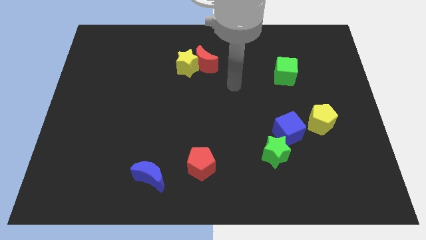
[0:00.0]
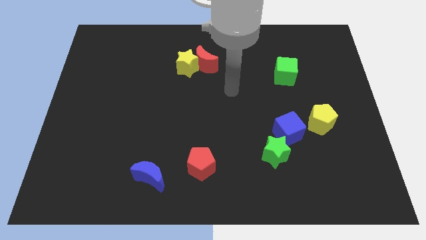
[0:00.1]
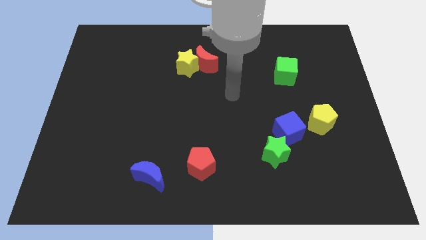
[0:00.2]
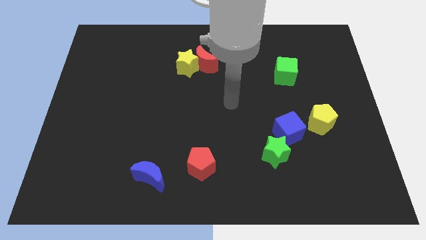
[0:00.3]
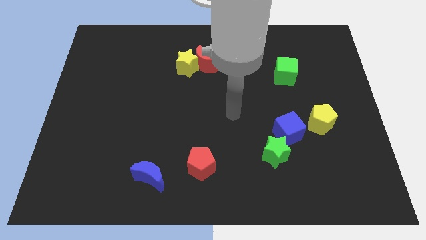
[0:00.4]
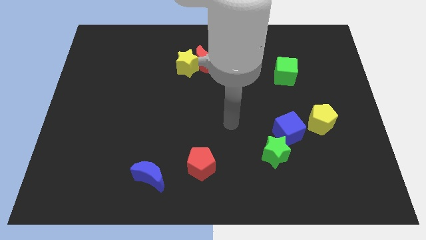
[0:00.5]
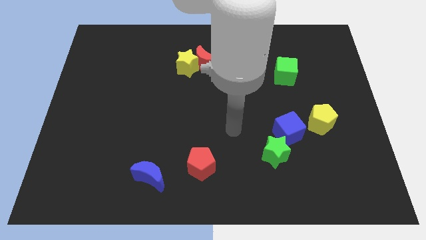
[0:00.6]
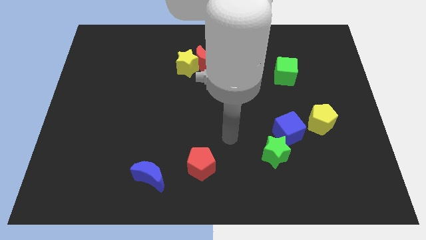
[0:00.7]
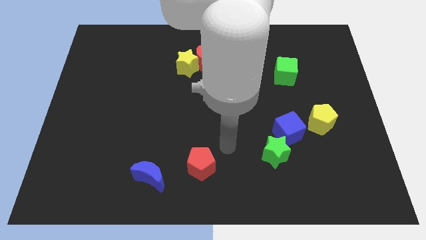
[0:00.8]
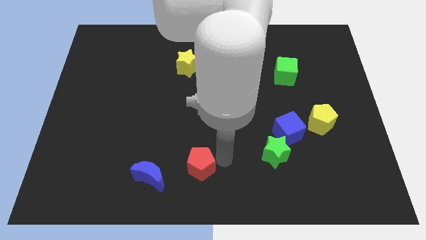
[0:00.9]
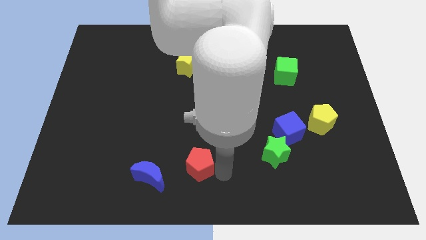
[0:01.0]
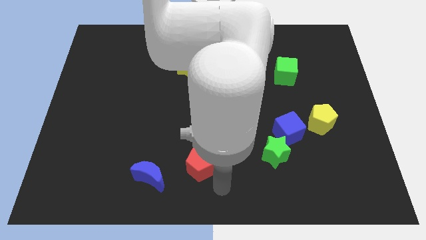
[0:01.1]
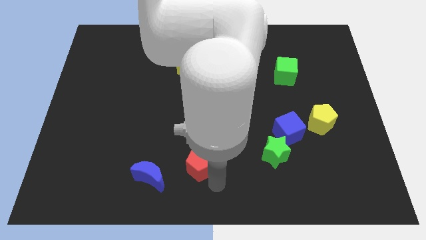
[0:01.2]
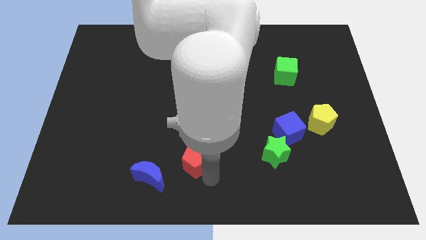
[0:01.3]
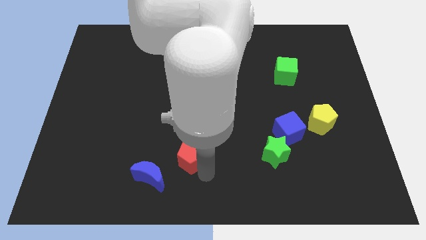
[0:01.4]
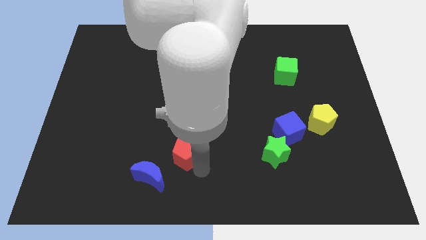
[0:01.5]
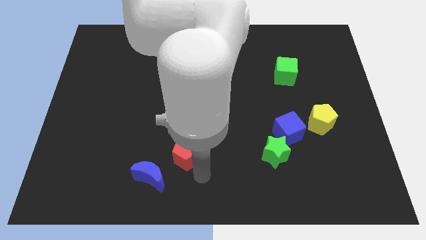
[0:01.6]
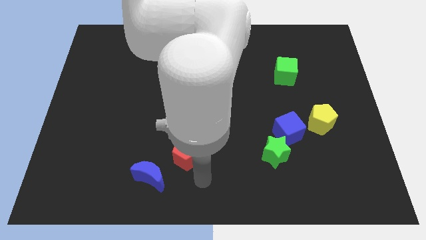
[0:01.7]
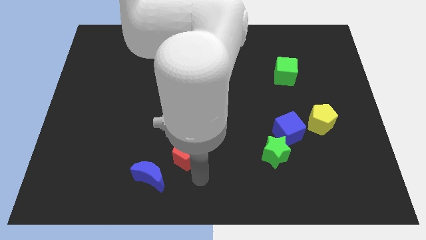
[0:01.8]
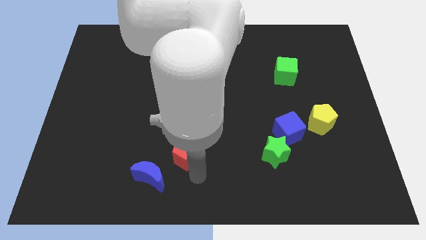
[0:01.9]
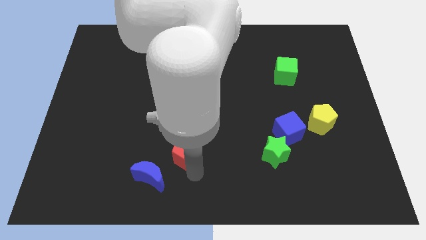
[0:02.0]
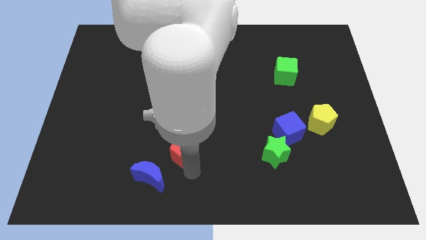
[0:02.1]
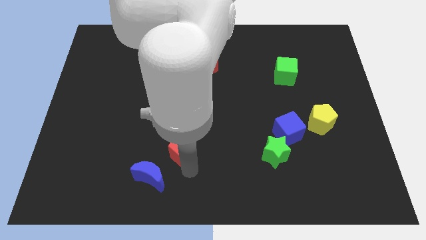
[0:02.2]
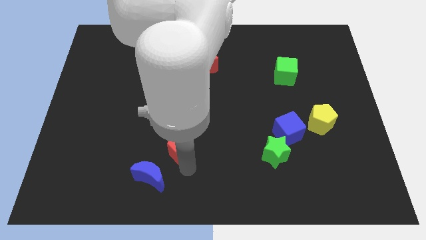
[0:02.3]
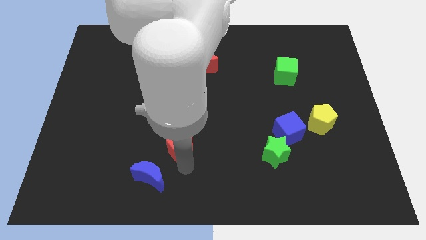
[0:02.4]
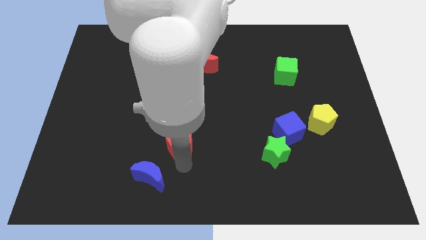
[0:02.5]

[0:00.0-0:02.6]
slightly move the red pentagon diagonally up and to the left

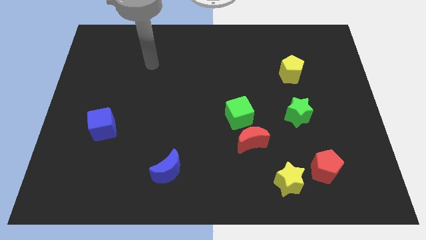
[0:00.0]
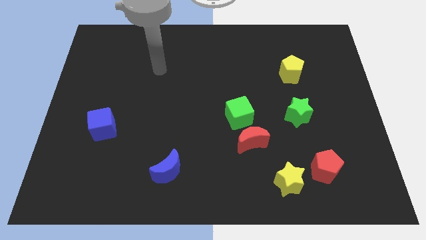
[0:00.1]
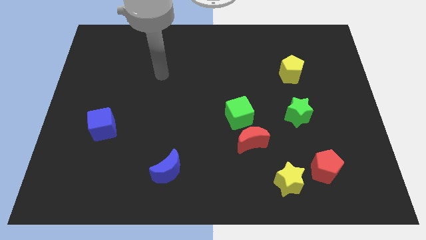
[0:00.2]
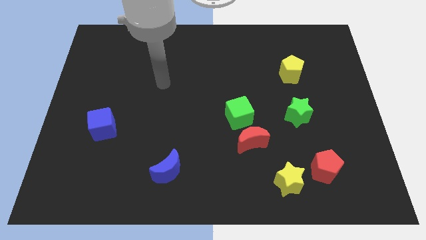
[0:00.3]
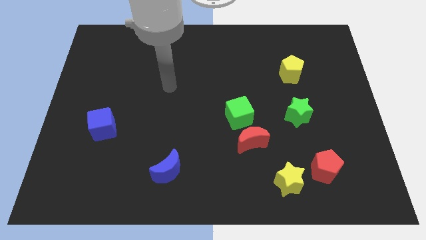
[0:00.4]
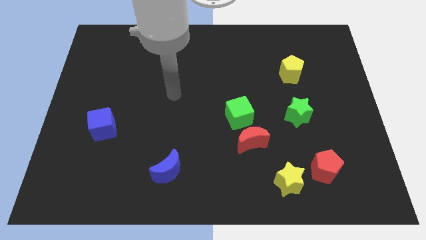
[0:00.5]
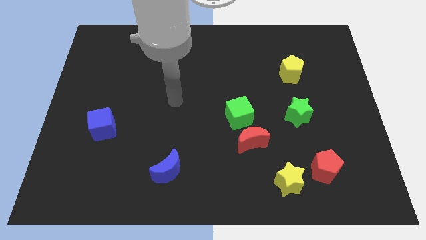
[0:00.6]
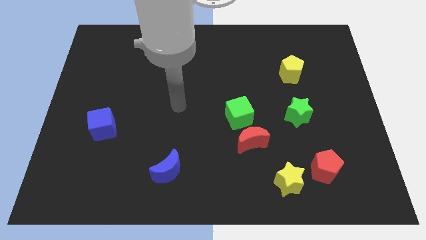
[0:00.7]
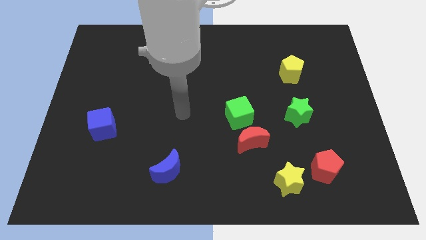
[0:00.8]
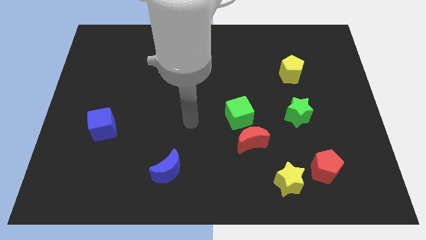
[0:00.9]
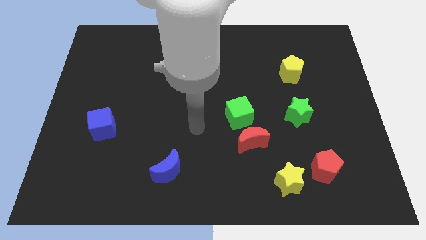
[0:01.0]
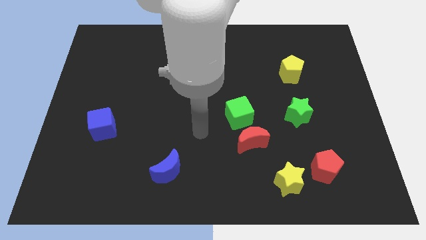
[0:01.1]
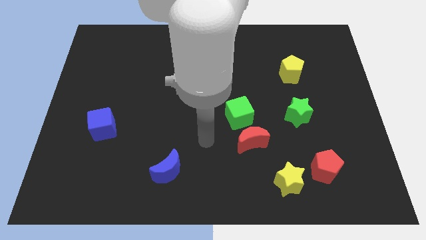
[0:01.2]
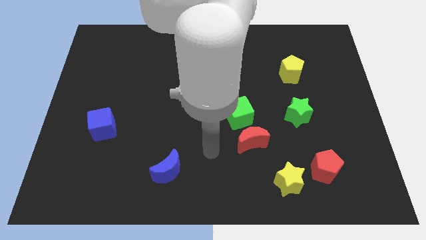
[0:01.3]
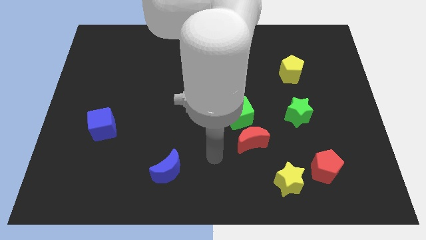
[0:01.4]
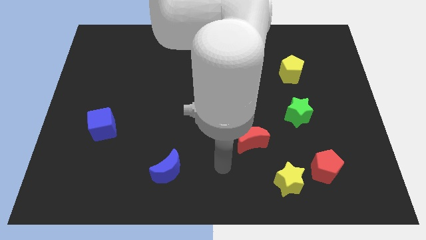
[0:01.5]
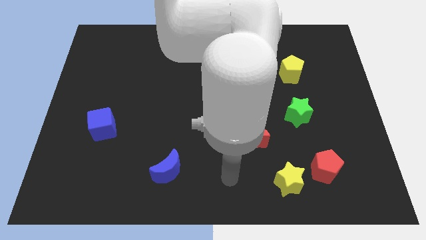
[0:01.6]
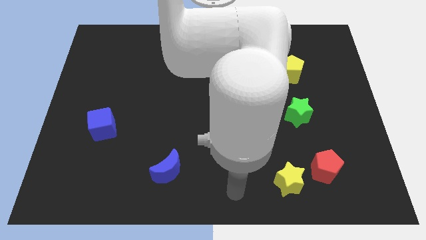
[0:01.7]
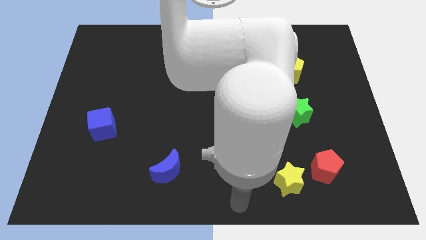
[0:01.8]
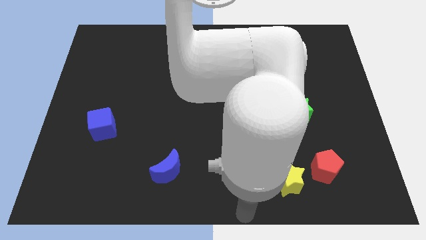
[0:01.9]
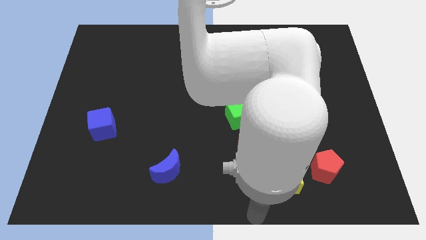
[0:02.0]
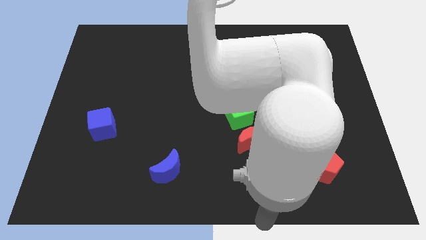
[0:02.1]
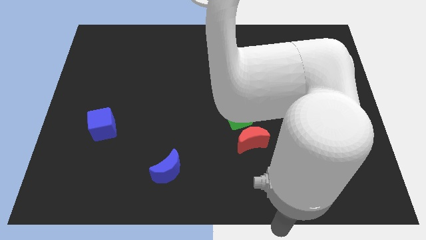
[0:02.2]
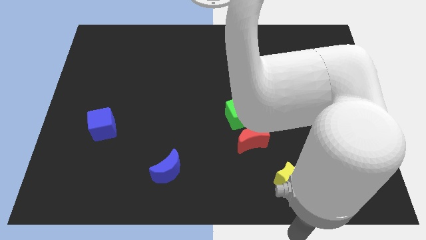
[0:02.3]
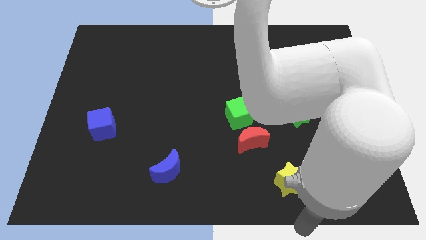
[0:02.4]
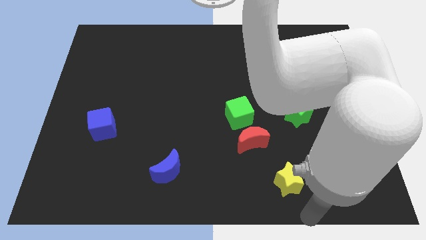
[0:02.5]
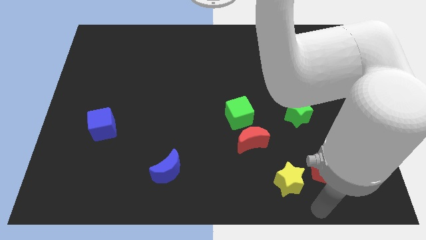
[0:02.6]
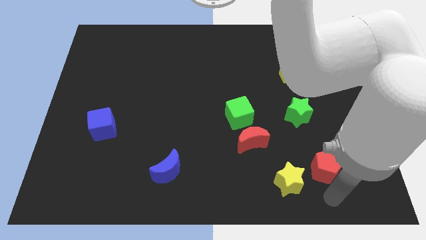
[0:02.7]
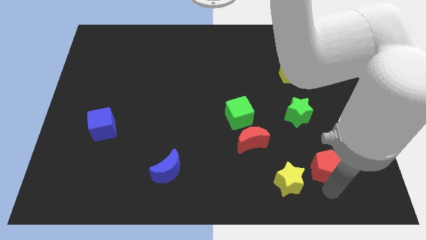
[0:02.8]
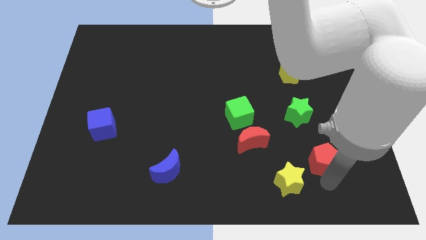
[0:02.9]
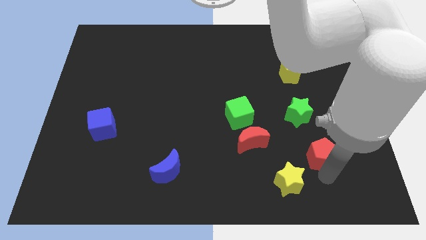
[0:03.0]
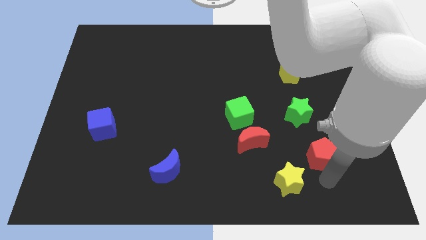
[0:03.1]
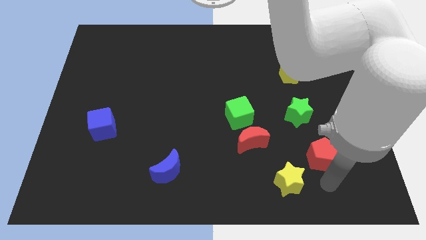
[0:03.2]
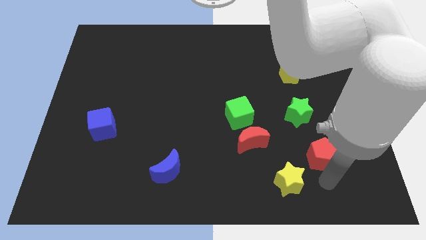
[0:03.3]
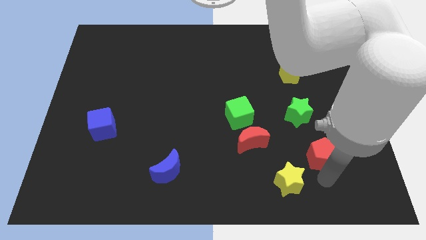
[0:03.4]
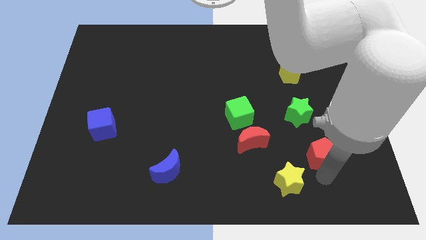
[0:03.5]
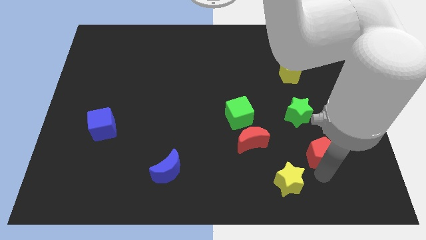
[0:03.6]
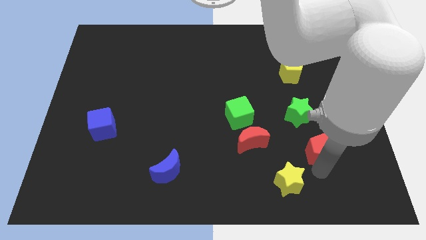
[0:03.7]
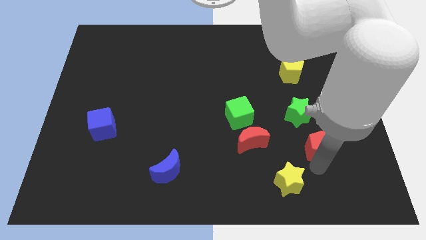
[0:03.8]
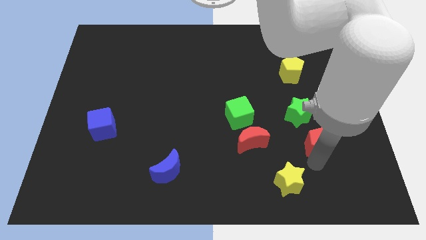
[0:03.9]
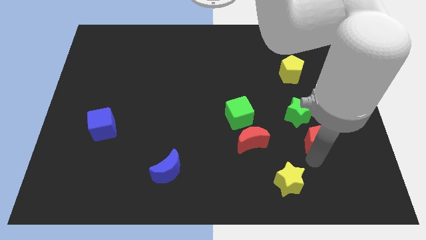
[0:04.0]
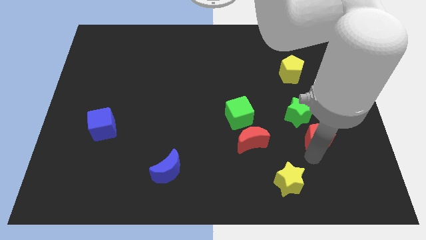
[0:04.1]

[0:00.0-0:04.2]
slightly move the red pentagon up

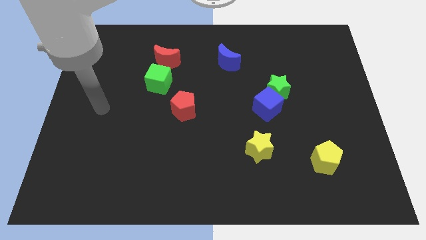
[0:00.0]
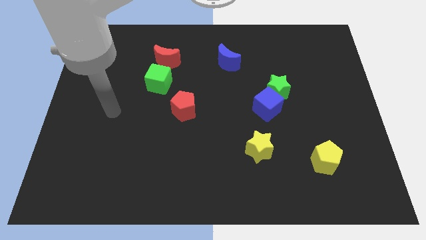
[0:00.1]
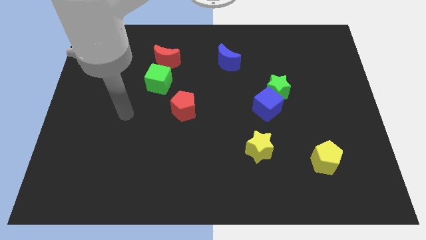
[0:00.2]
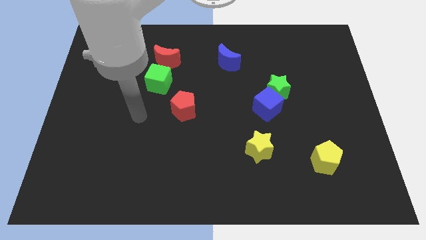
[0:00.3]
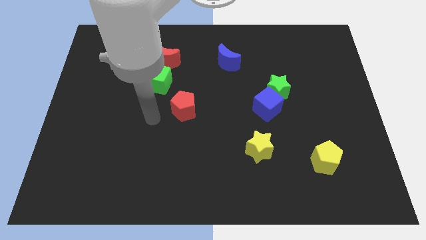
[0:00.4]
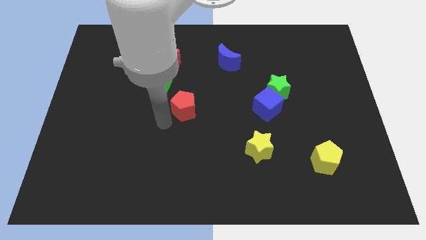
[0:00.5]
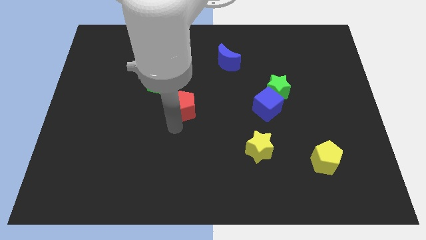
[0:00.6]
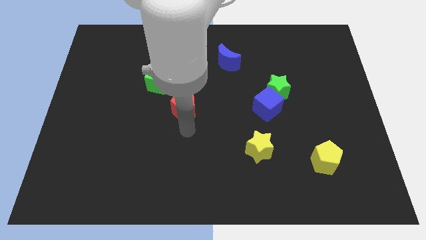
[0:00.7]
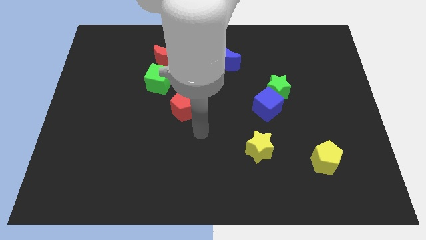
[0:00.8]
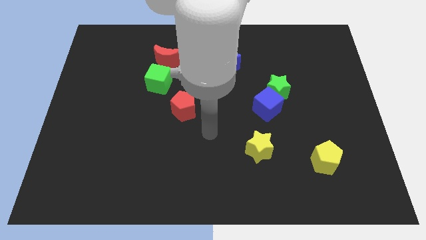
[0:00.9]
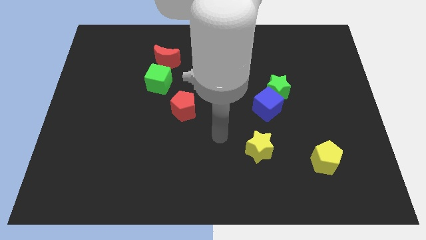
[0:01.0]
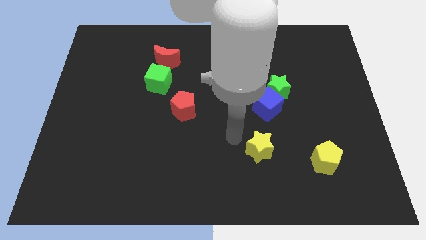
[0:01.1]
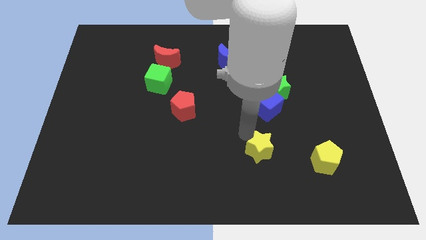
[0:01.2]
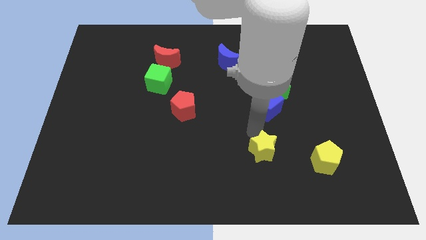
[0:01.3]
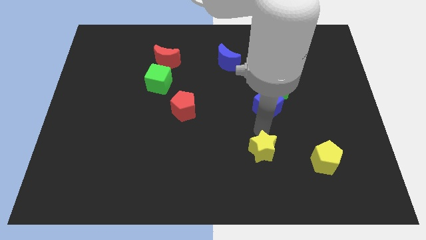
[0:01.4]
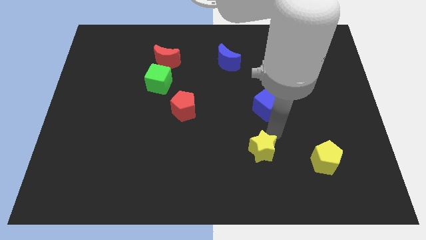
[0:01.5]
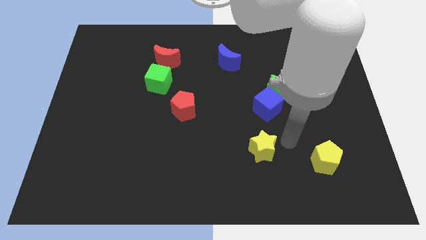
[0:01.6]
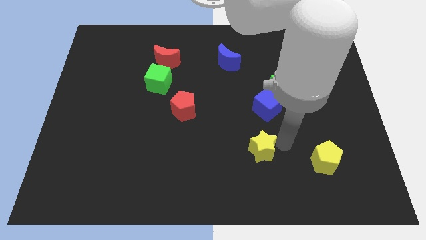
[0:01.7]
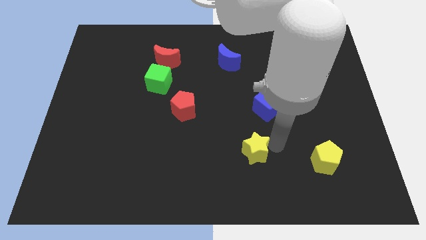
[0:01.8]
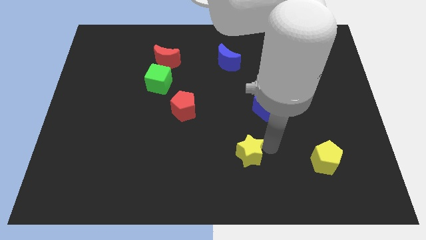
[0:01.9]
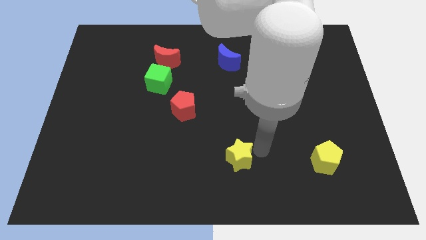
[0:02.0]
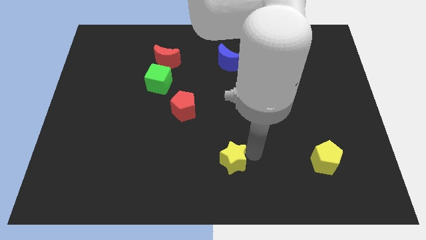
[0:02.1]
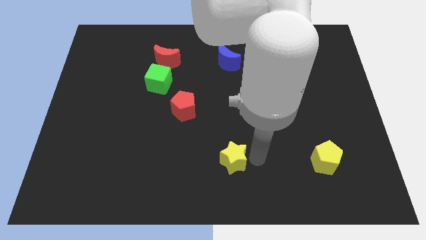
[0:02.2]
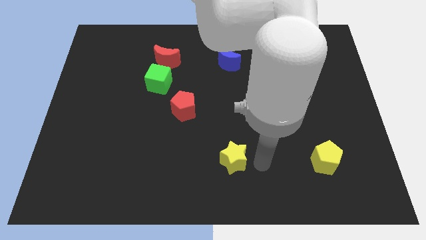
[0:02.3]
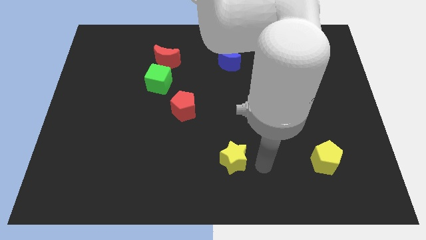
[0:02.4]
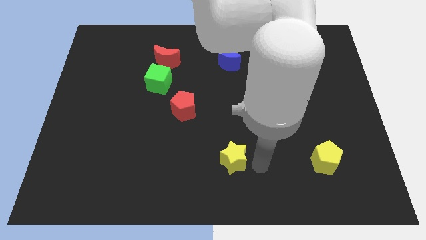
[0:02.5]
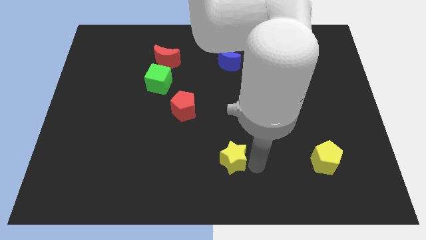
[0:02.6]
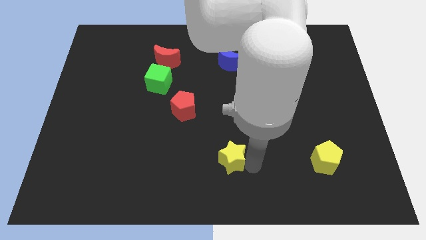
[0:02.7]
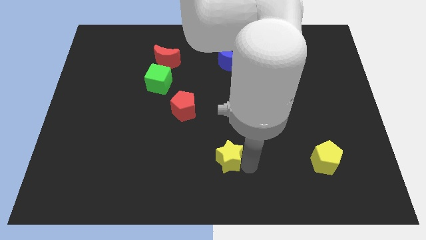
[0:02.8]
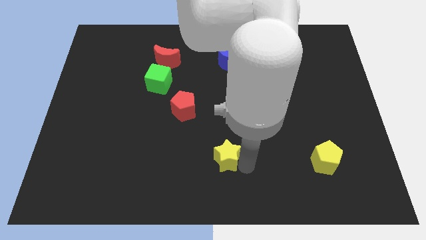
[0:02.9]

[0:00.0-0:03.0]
slightly move the yellow star left
